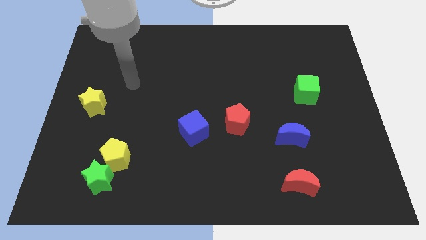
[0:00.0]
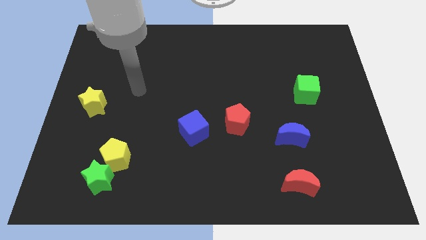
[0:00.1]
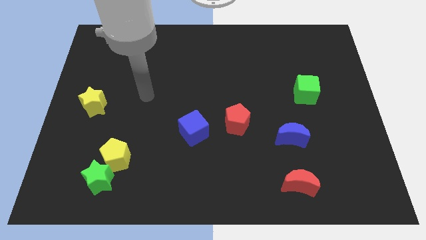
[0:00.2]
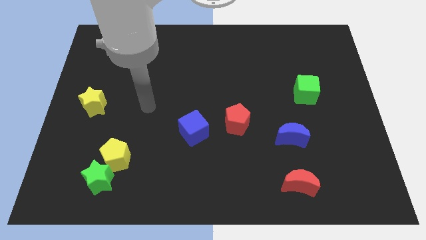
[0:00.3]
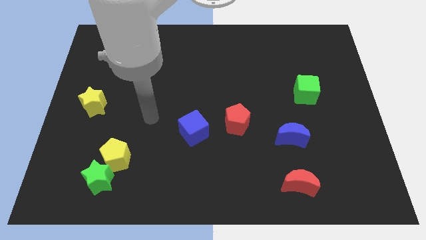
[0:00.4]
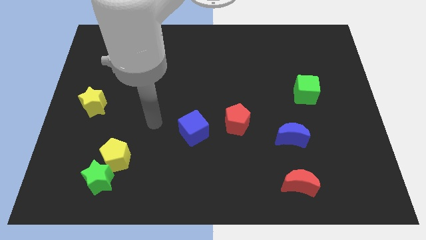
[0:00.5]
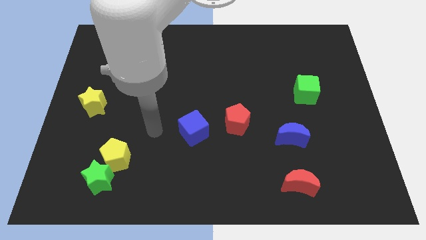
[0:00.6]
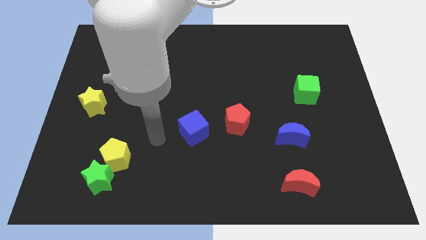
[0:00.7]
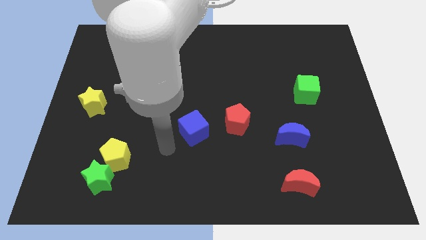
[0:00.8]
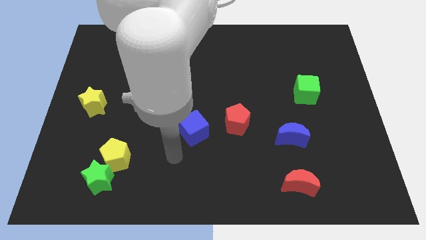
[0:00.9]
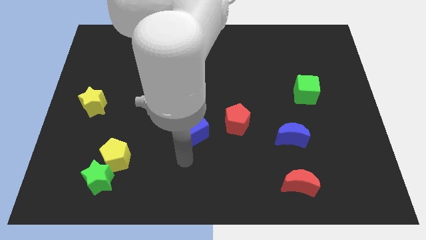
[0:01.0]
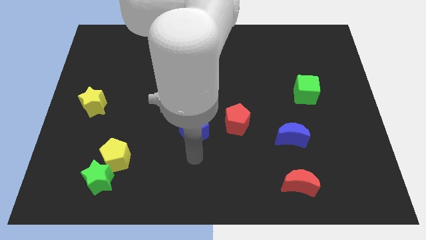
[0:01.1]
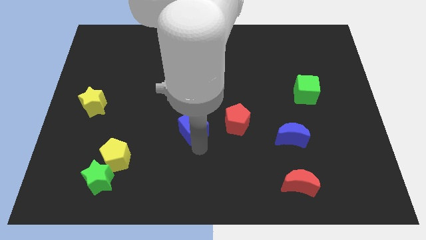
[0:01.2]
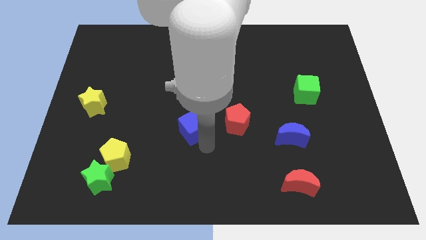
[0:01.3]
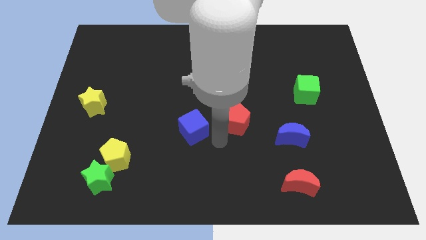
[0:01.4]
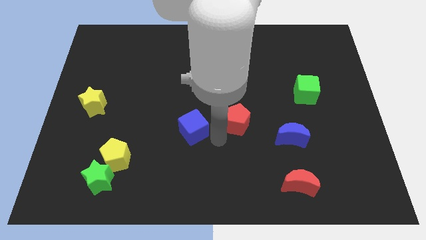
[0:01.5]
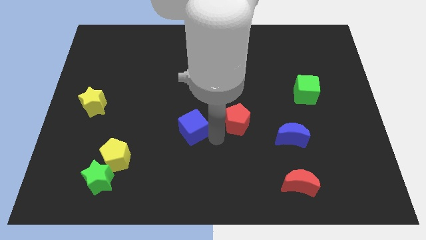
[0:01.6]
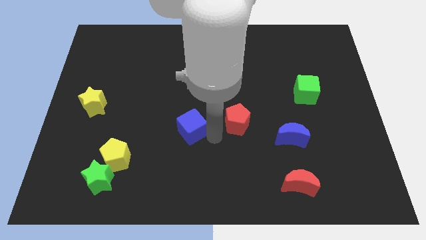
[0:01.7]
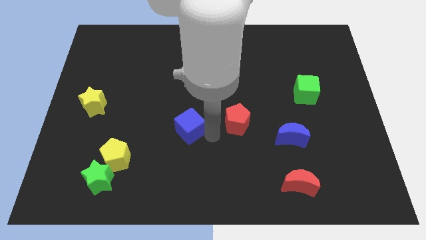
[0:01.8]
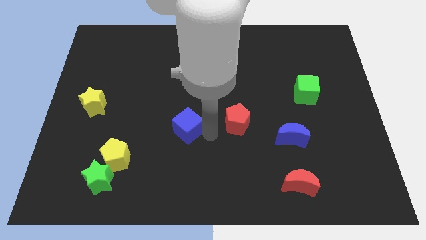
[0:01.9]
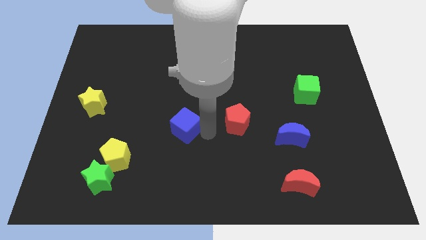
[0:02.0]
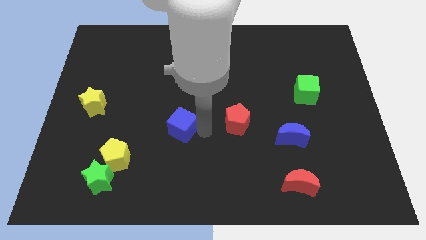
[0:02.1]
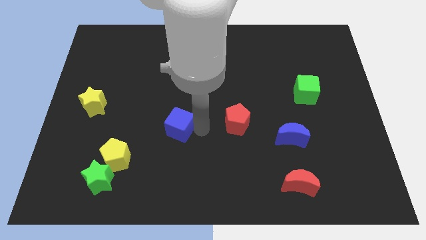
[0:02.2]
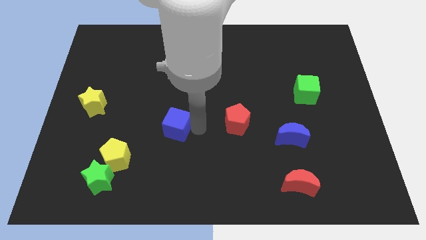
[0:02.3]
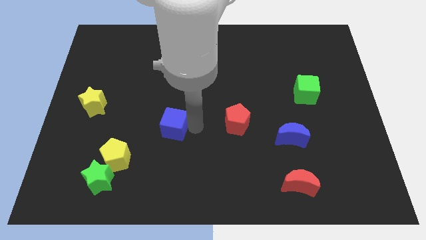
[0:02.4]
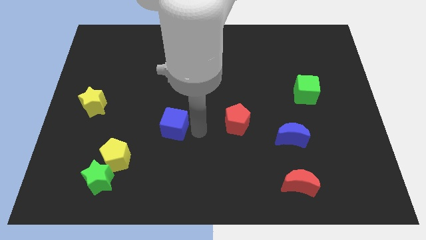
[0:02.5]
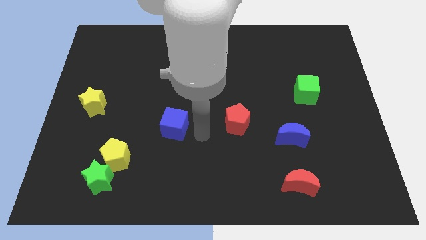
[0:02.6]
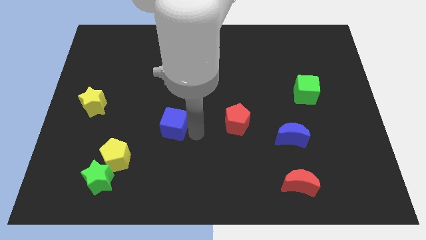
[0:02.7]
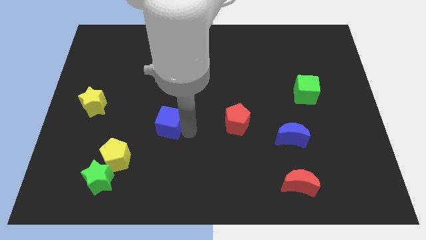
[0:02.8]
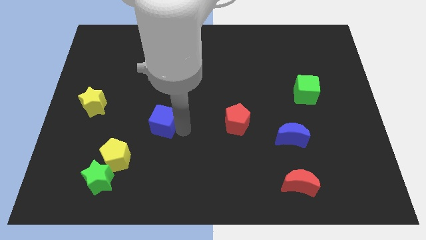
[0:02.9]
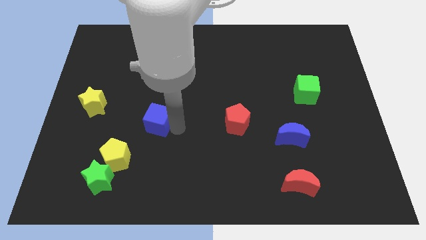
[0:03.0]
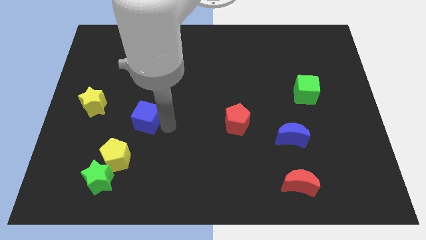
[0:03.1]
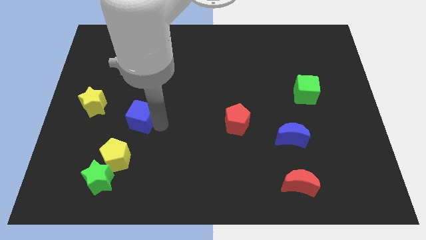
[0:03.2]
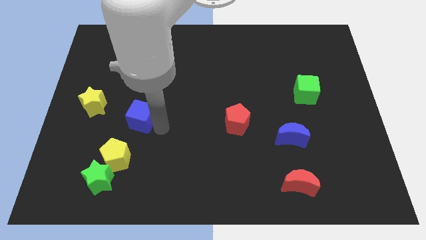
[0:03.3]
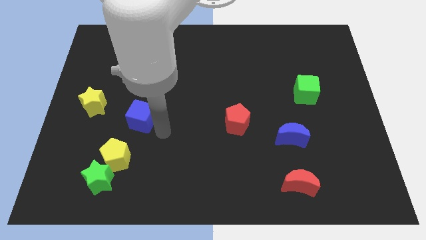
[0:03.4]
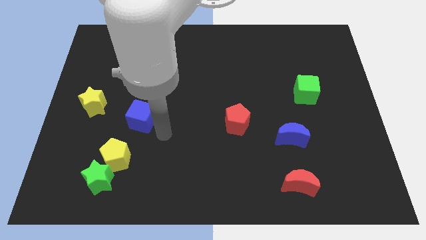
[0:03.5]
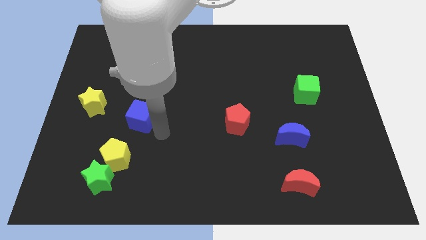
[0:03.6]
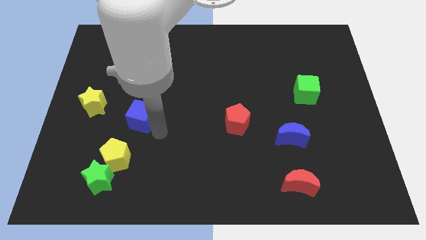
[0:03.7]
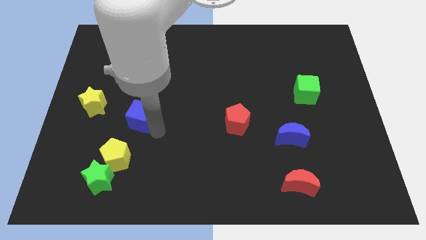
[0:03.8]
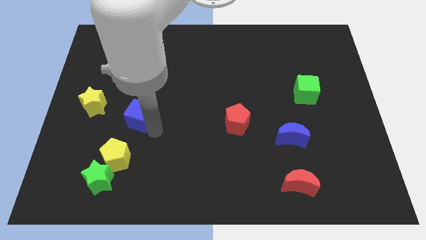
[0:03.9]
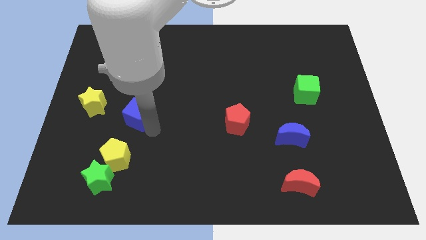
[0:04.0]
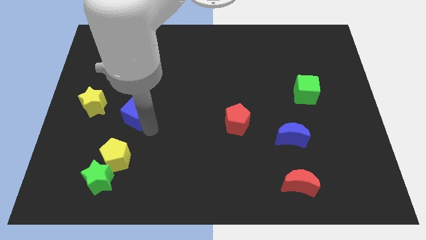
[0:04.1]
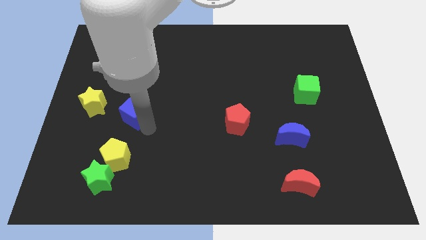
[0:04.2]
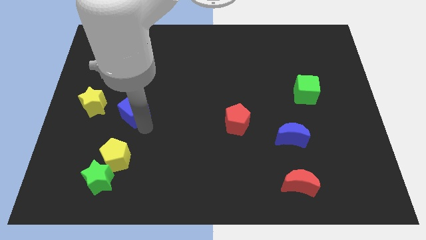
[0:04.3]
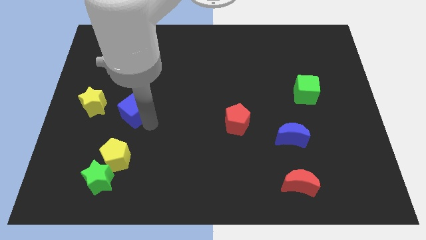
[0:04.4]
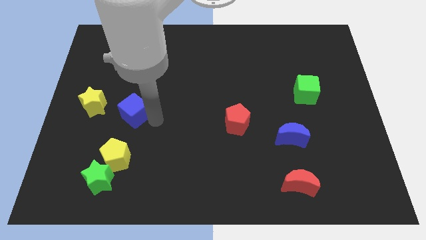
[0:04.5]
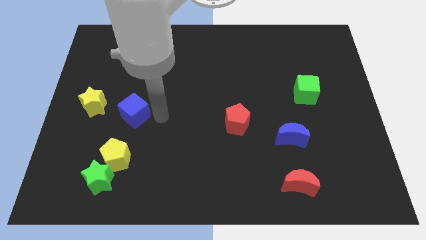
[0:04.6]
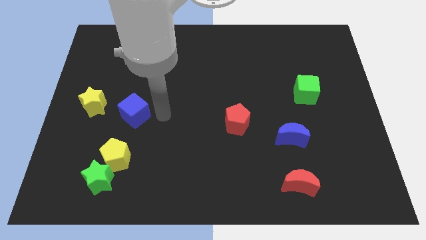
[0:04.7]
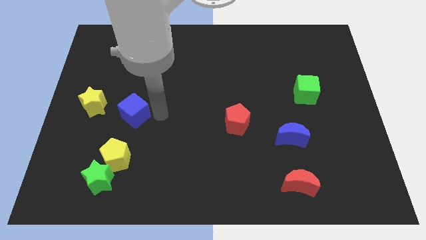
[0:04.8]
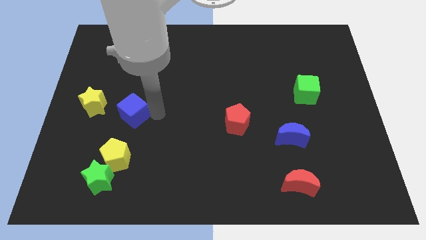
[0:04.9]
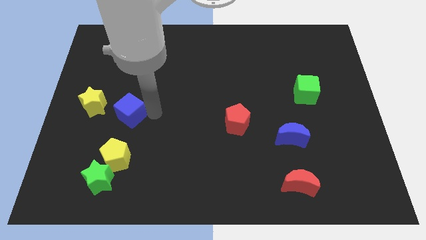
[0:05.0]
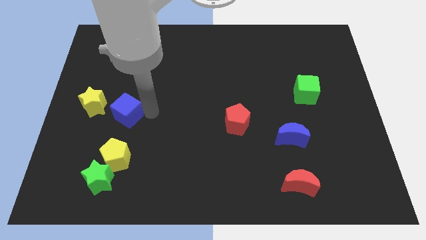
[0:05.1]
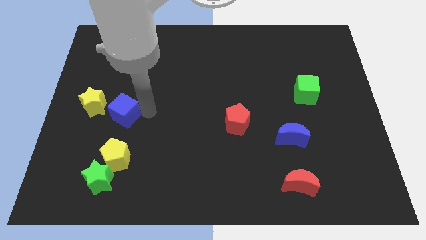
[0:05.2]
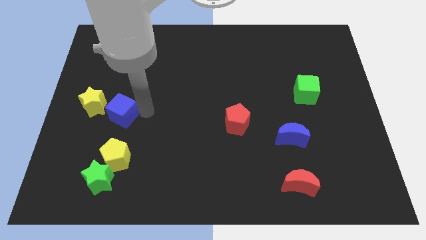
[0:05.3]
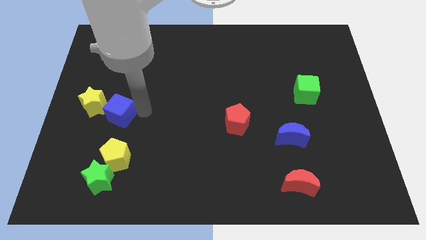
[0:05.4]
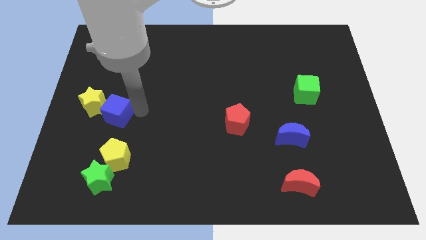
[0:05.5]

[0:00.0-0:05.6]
push the blue cube towards the yellow star

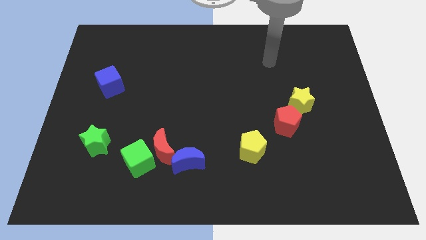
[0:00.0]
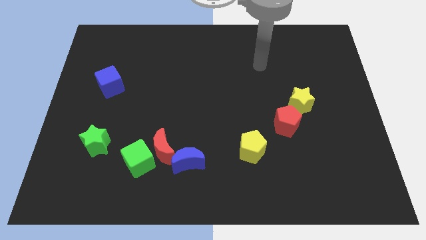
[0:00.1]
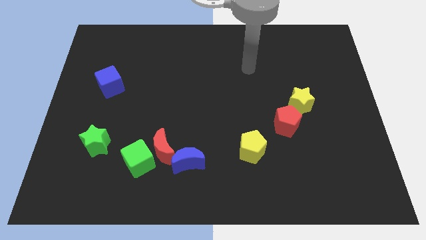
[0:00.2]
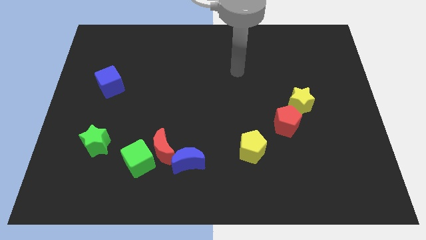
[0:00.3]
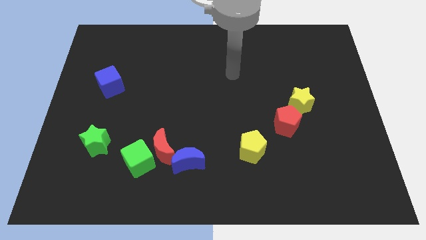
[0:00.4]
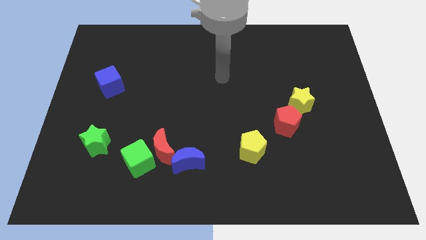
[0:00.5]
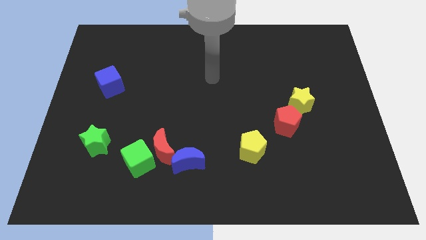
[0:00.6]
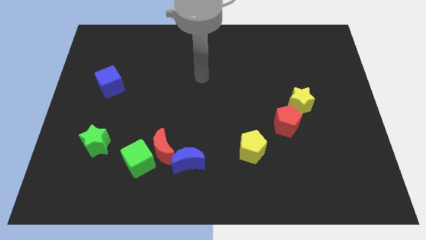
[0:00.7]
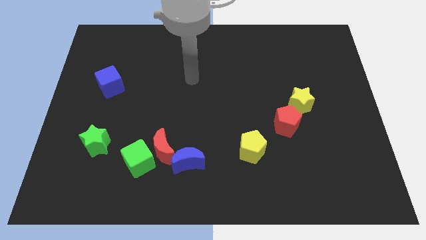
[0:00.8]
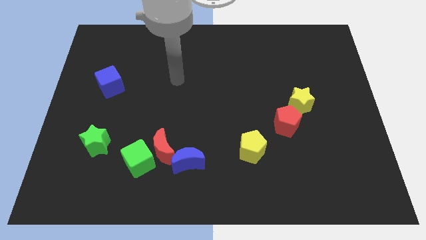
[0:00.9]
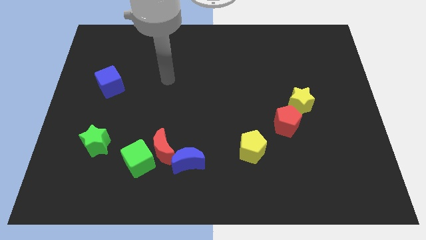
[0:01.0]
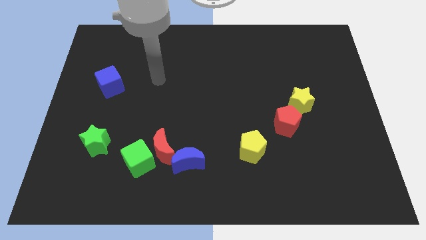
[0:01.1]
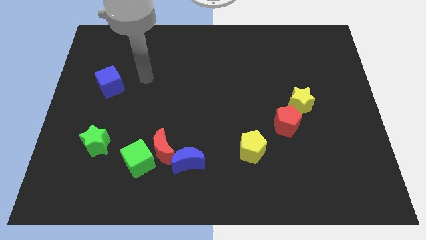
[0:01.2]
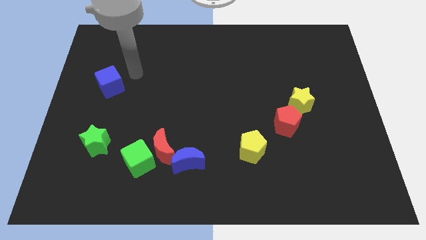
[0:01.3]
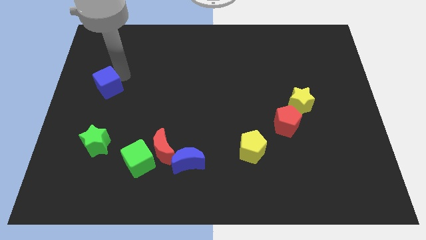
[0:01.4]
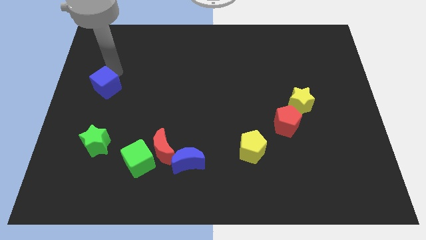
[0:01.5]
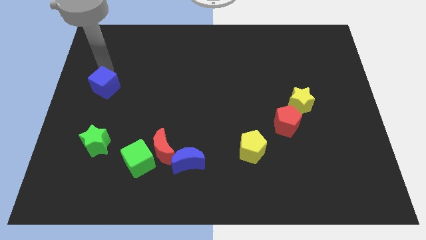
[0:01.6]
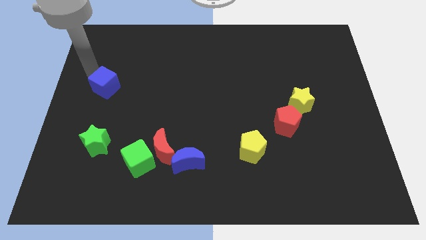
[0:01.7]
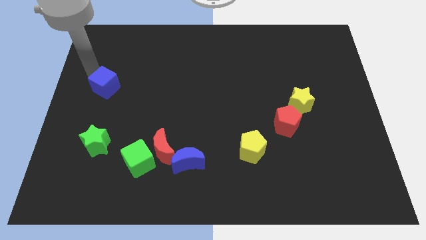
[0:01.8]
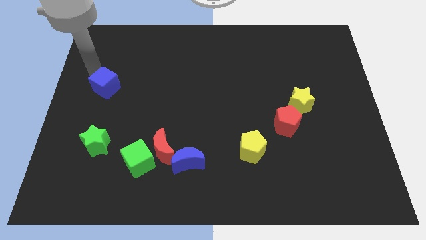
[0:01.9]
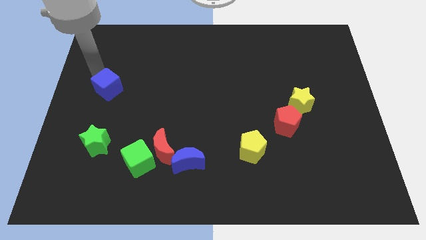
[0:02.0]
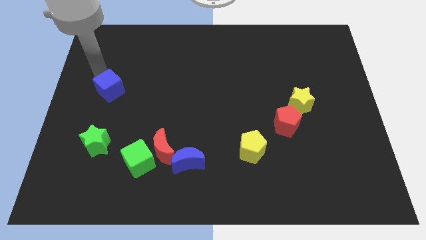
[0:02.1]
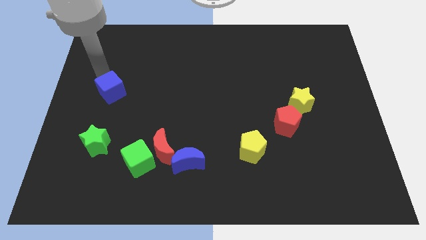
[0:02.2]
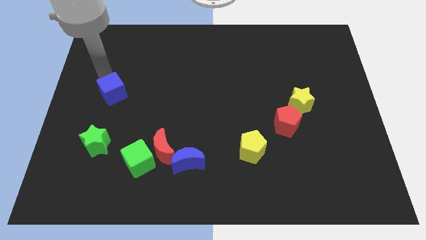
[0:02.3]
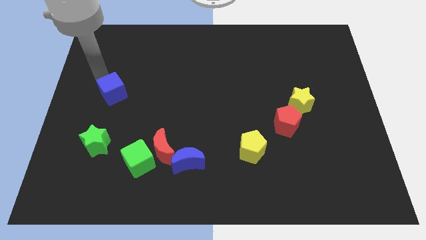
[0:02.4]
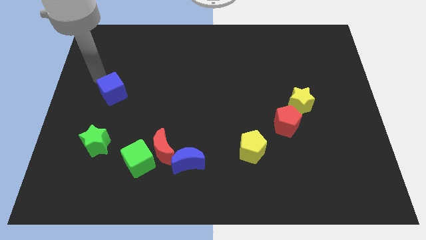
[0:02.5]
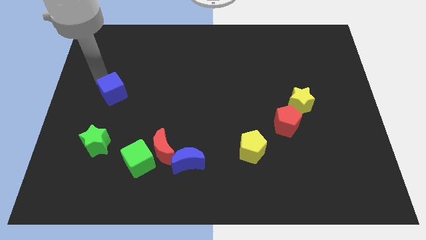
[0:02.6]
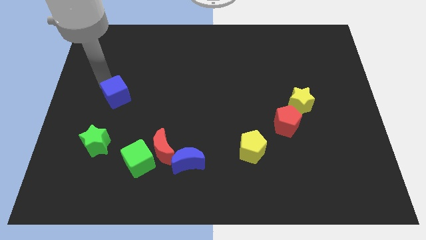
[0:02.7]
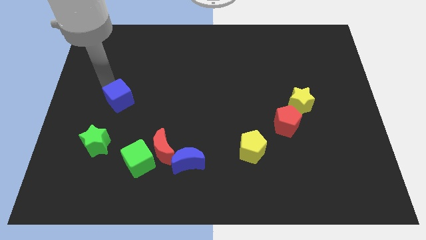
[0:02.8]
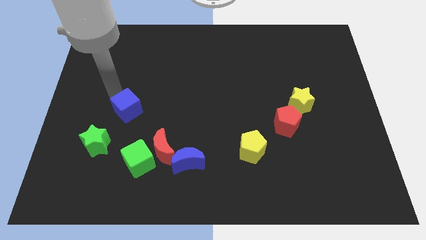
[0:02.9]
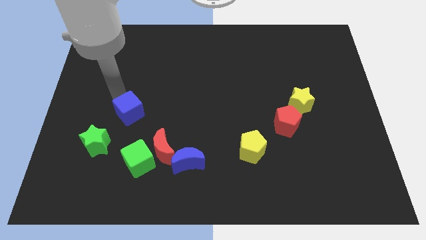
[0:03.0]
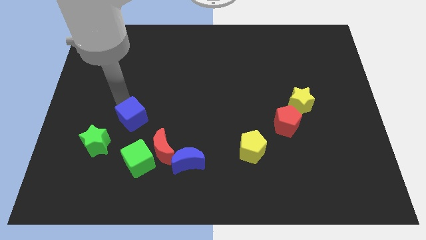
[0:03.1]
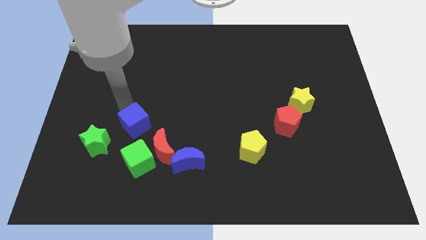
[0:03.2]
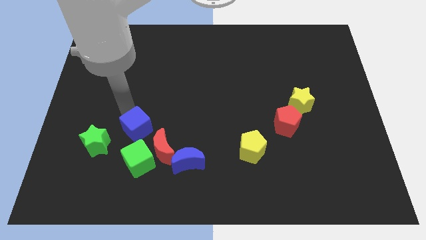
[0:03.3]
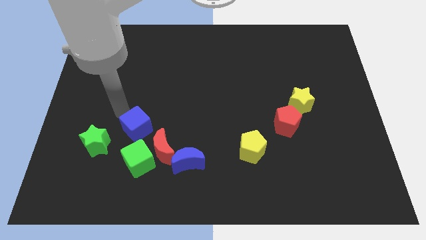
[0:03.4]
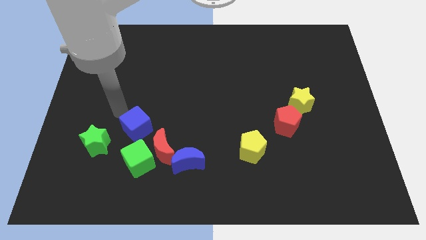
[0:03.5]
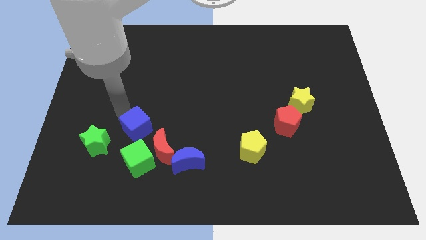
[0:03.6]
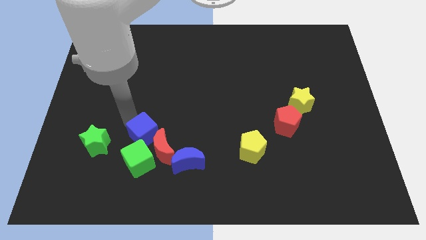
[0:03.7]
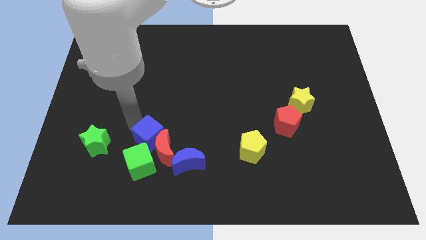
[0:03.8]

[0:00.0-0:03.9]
slide the blue cube close to the red moon
